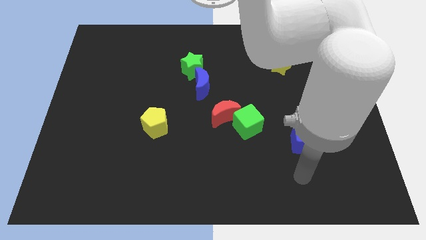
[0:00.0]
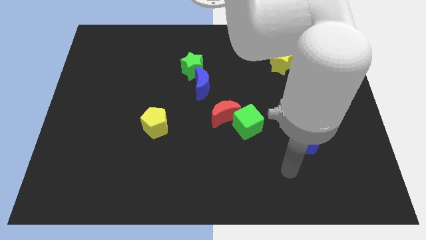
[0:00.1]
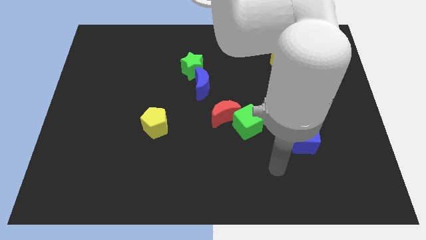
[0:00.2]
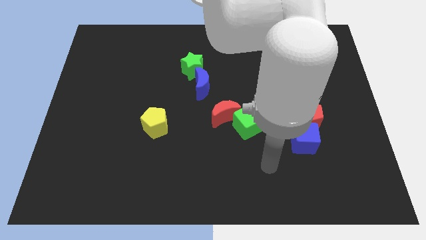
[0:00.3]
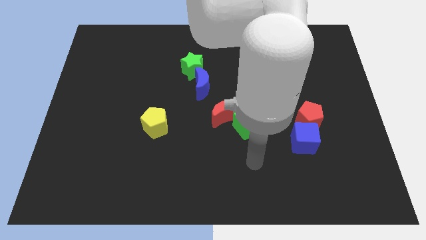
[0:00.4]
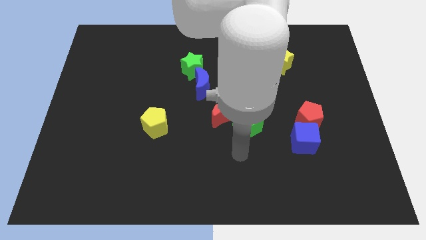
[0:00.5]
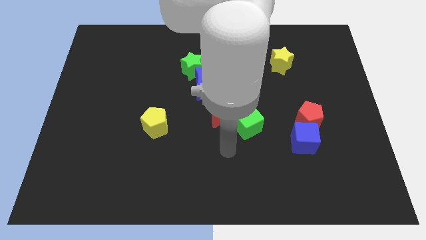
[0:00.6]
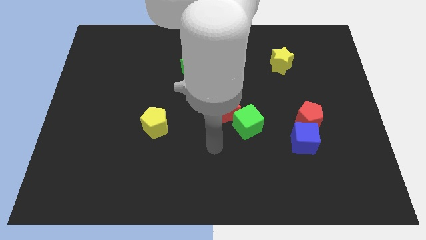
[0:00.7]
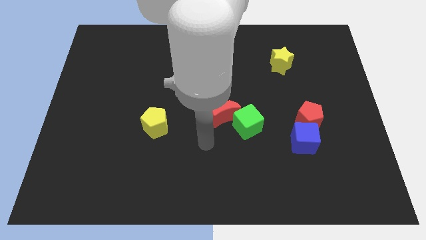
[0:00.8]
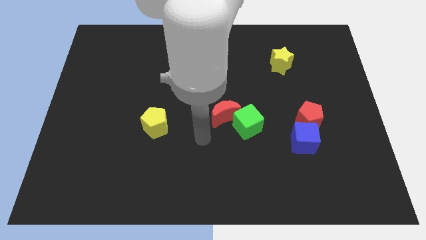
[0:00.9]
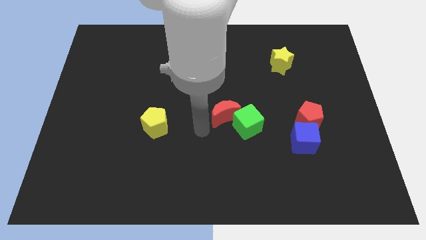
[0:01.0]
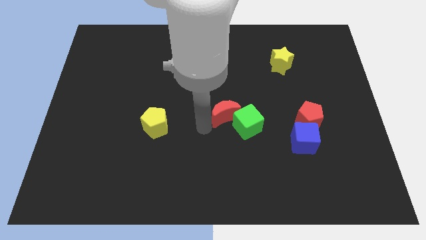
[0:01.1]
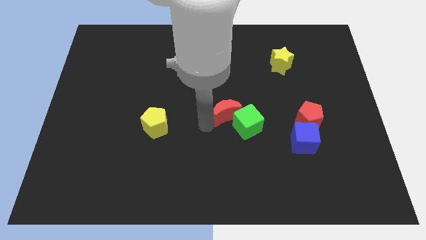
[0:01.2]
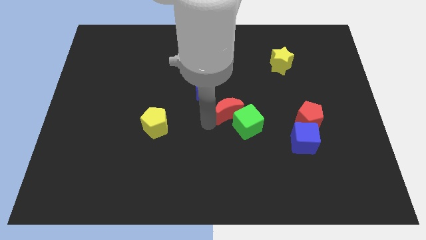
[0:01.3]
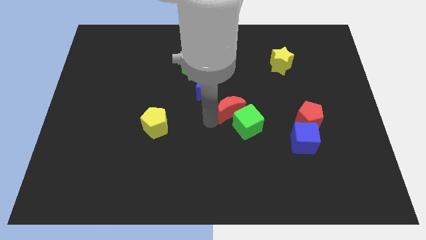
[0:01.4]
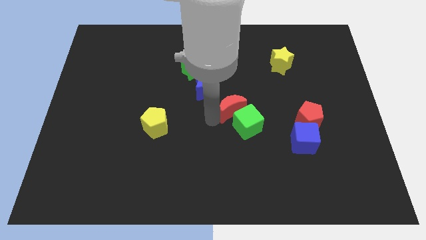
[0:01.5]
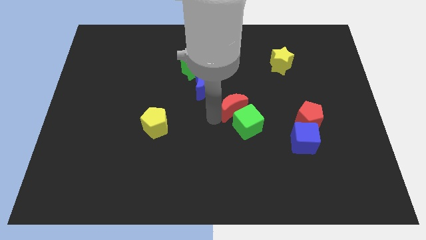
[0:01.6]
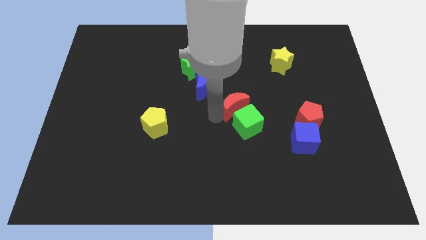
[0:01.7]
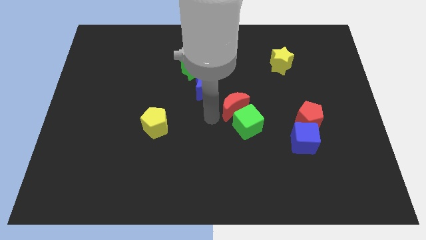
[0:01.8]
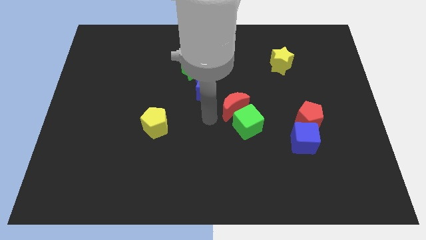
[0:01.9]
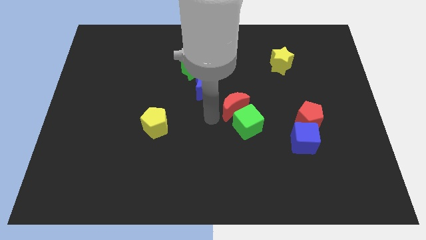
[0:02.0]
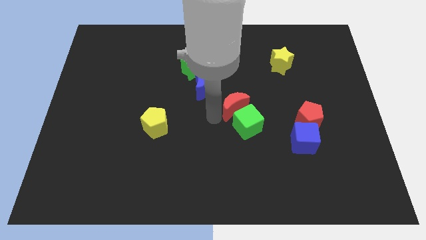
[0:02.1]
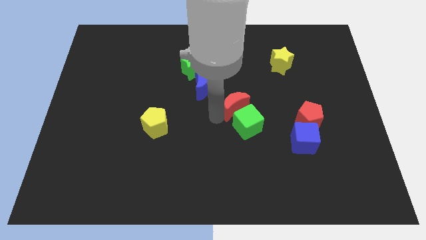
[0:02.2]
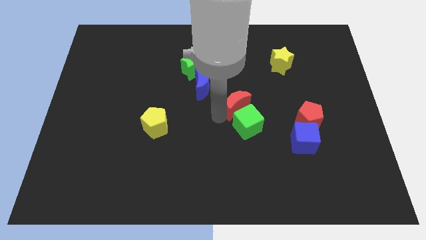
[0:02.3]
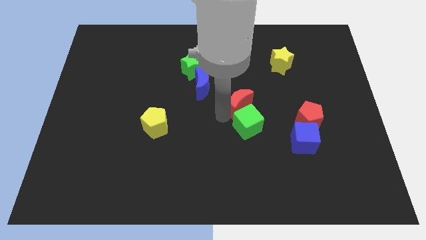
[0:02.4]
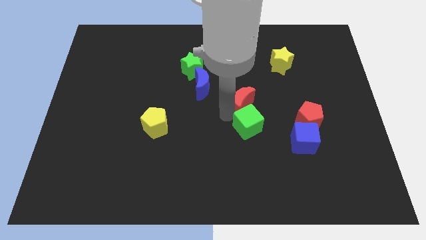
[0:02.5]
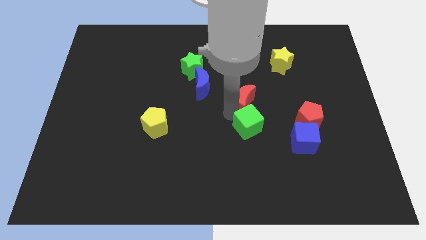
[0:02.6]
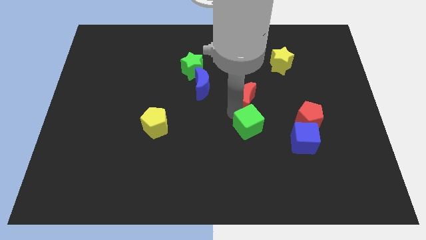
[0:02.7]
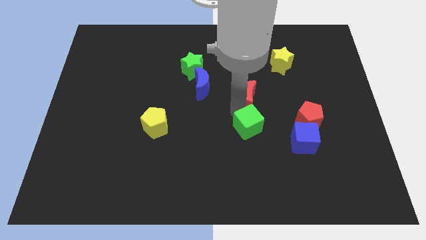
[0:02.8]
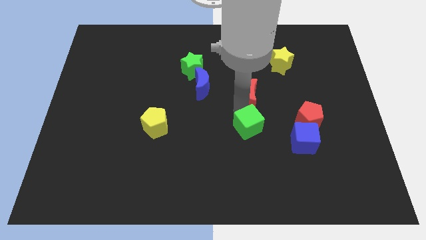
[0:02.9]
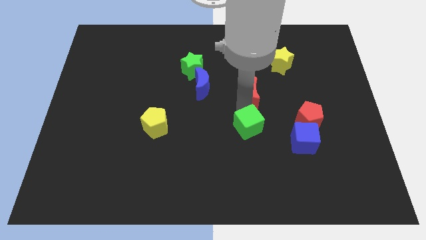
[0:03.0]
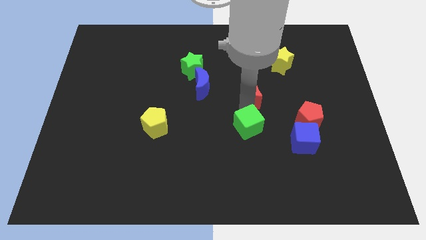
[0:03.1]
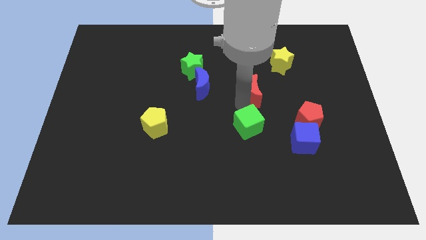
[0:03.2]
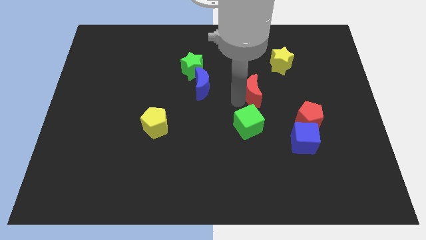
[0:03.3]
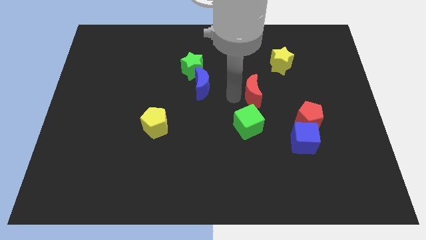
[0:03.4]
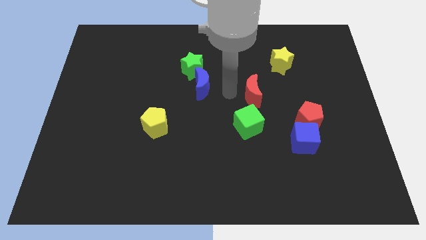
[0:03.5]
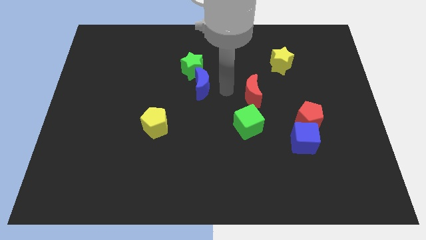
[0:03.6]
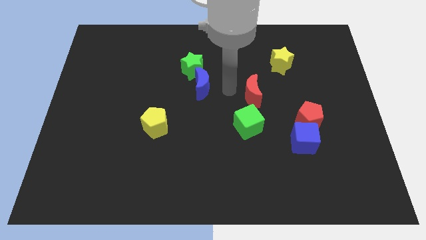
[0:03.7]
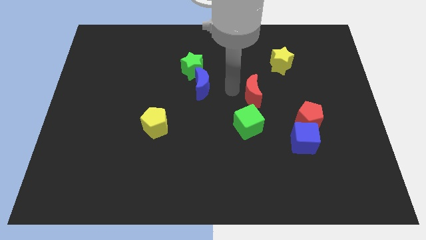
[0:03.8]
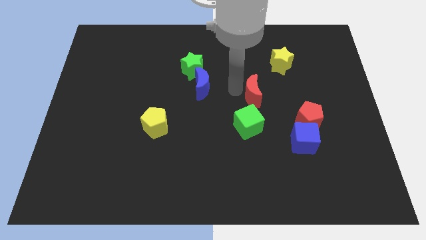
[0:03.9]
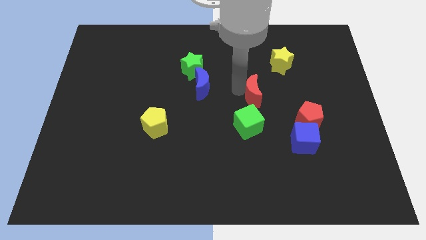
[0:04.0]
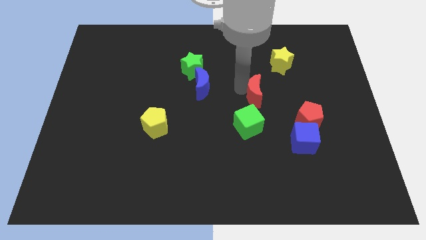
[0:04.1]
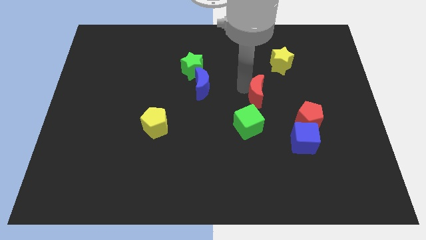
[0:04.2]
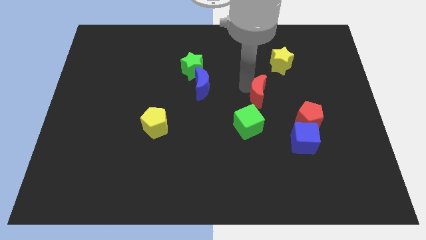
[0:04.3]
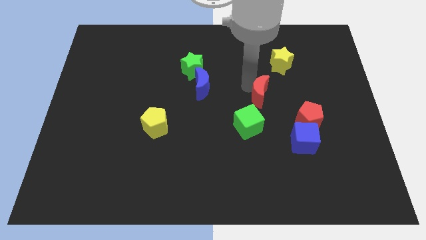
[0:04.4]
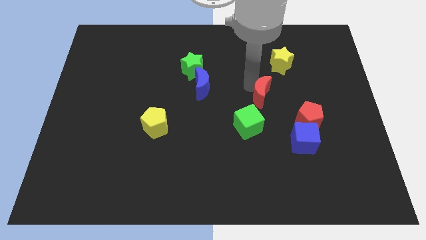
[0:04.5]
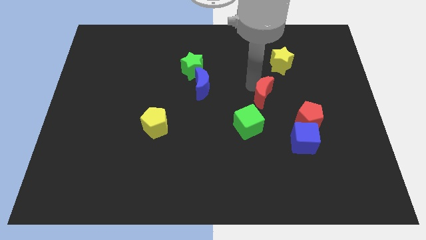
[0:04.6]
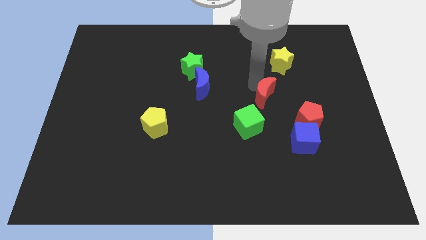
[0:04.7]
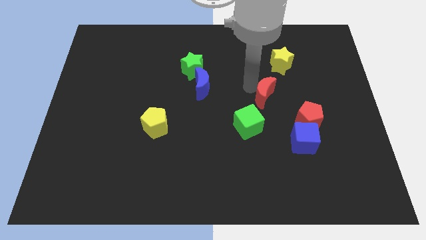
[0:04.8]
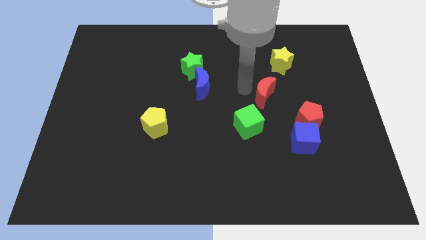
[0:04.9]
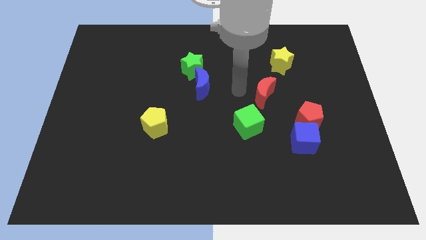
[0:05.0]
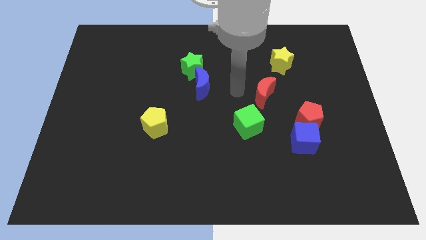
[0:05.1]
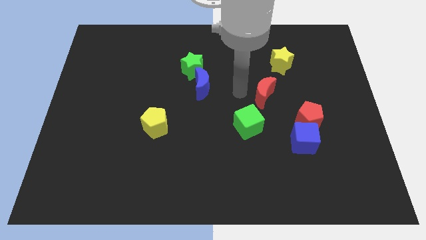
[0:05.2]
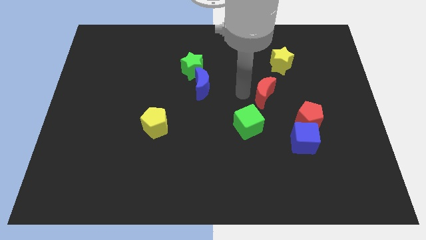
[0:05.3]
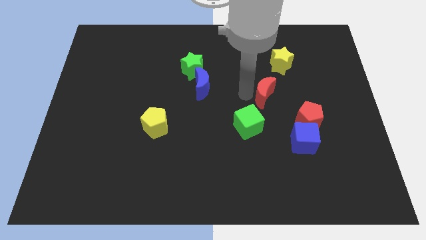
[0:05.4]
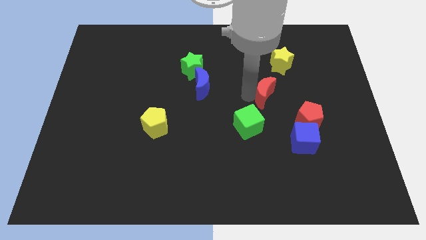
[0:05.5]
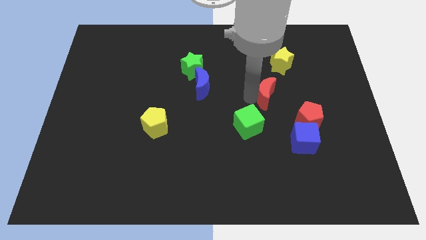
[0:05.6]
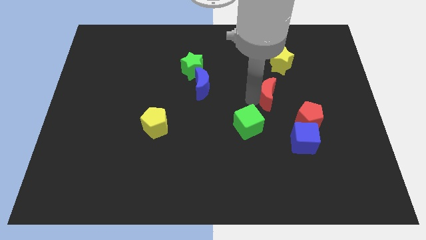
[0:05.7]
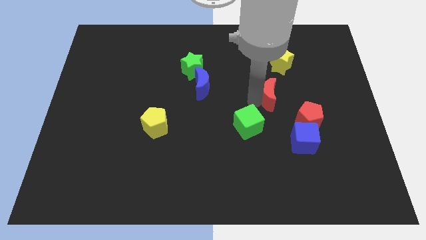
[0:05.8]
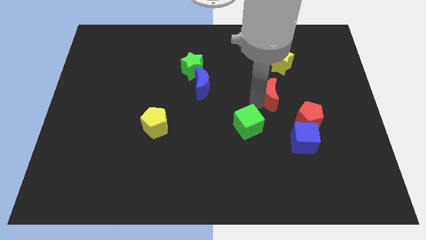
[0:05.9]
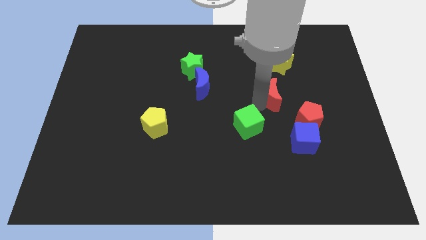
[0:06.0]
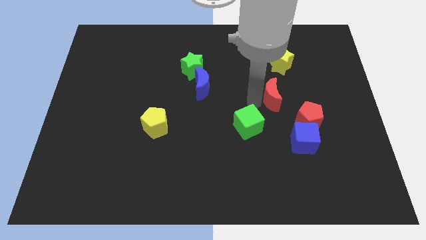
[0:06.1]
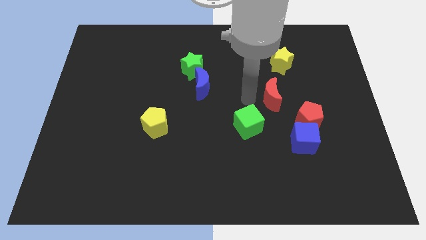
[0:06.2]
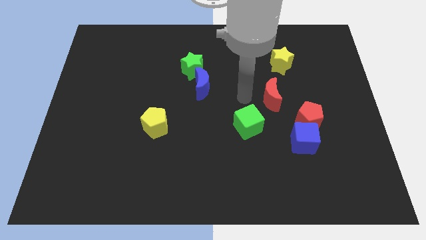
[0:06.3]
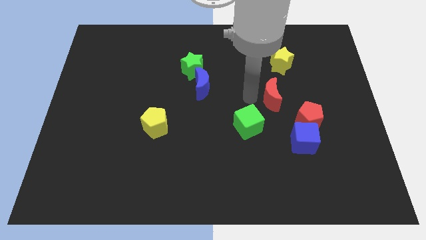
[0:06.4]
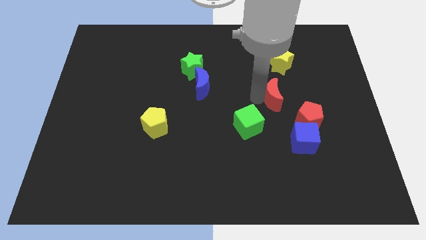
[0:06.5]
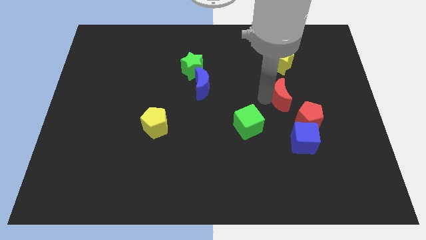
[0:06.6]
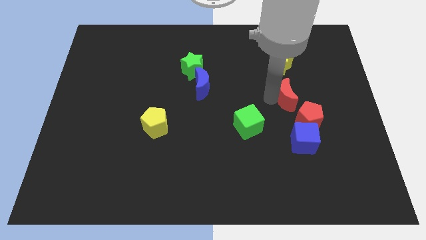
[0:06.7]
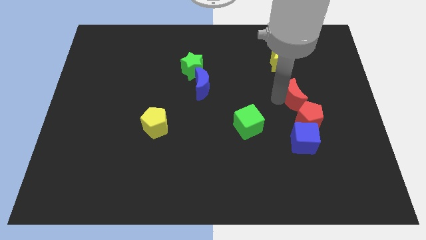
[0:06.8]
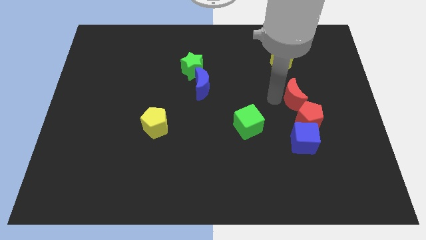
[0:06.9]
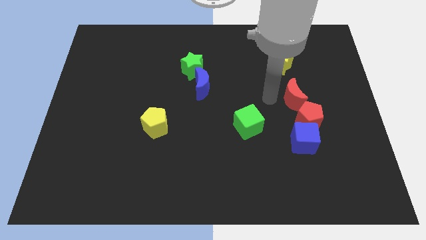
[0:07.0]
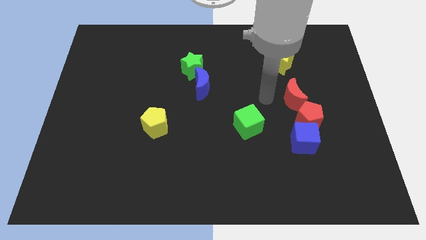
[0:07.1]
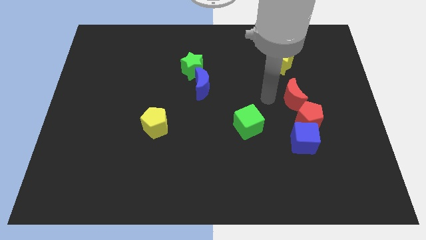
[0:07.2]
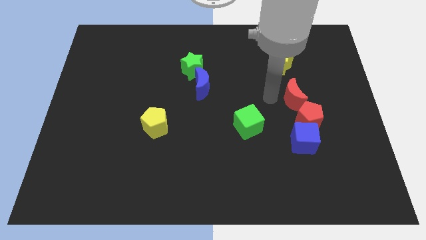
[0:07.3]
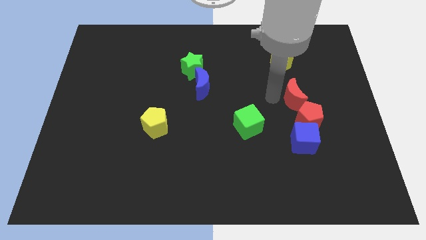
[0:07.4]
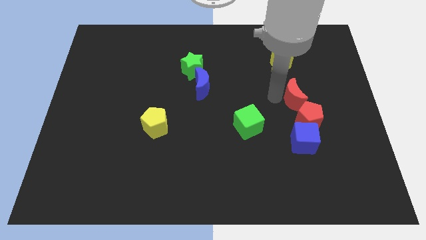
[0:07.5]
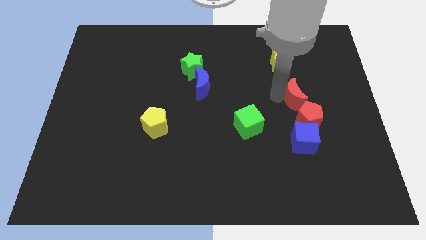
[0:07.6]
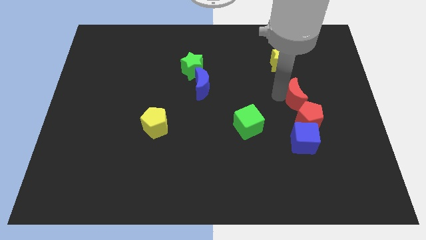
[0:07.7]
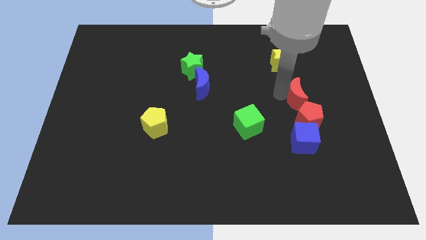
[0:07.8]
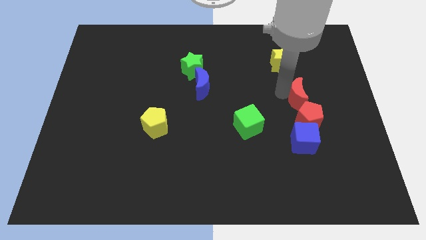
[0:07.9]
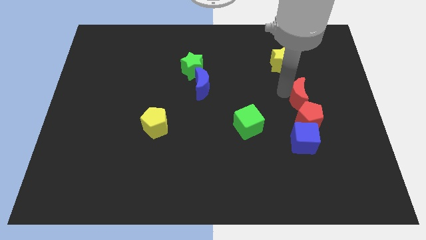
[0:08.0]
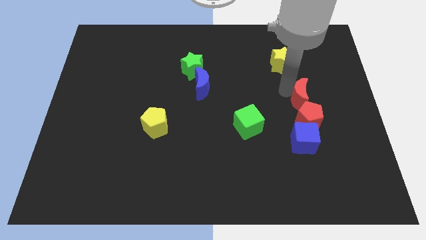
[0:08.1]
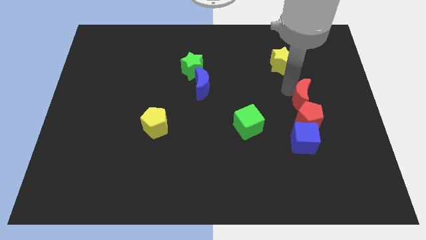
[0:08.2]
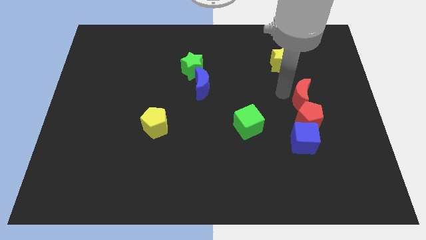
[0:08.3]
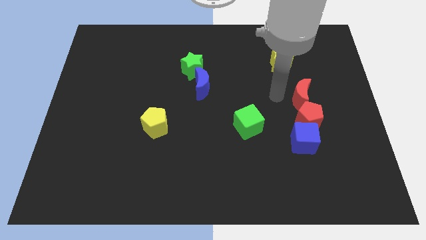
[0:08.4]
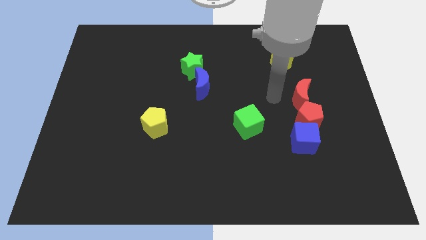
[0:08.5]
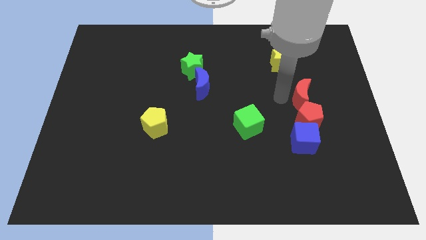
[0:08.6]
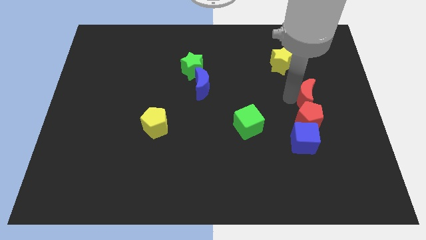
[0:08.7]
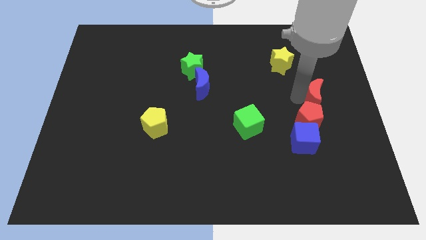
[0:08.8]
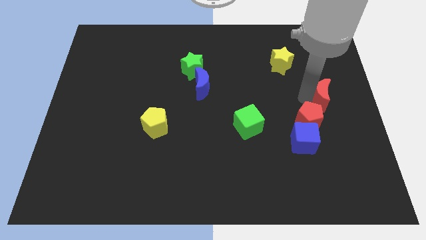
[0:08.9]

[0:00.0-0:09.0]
push the red moon to the right side
